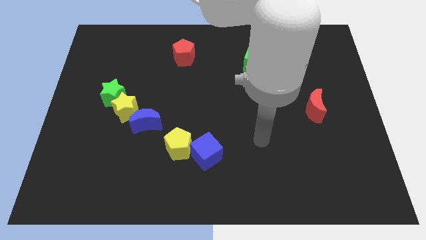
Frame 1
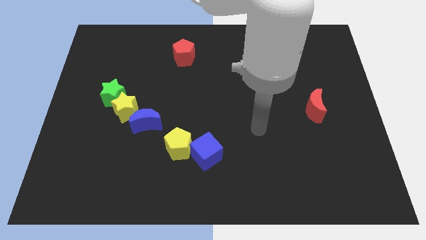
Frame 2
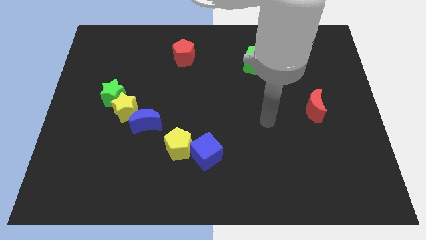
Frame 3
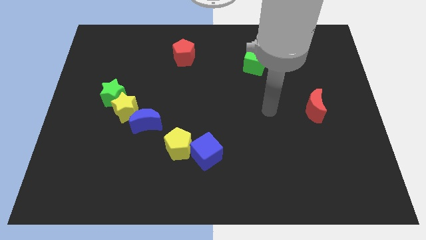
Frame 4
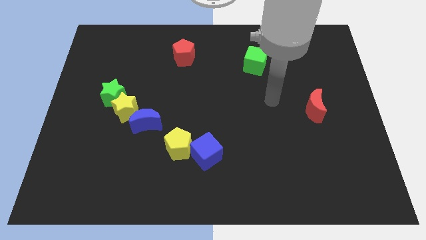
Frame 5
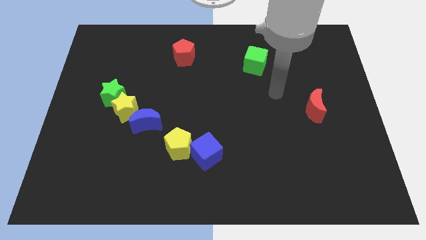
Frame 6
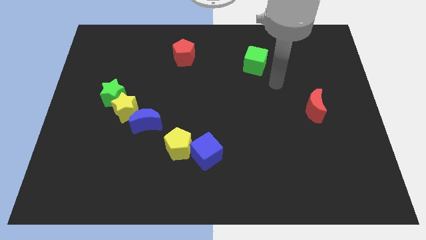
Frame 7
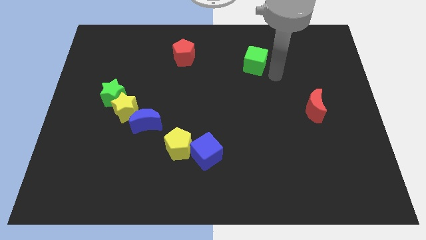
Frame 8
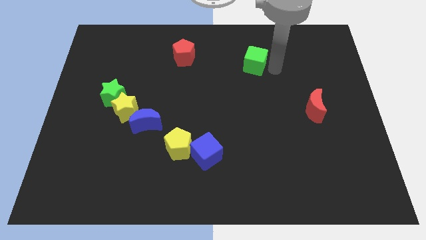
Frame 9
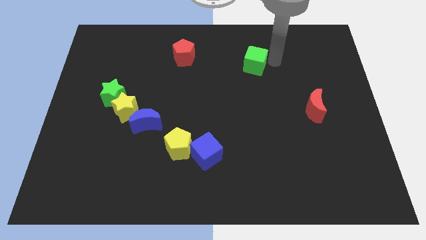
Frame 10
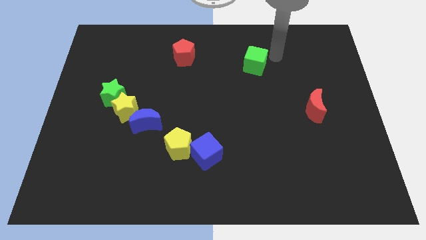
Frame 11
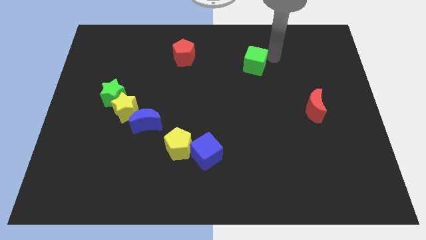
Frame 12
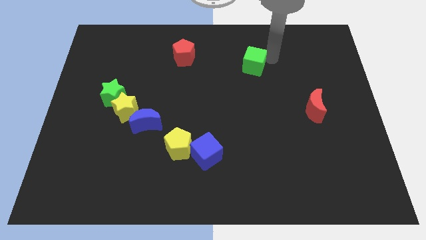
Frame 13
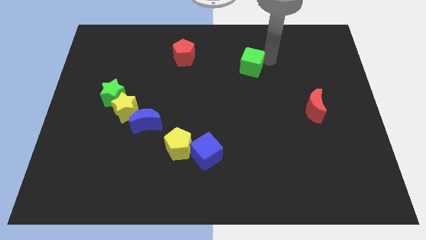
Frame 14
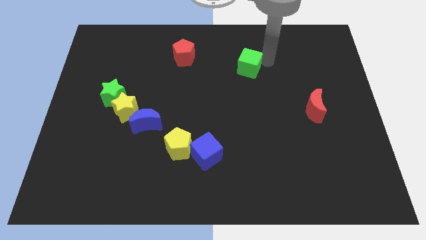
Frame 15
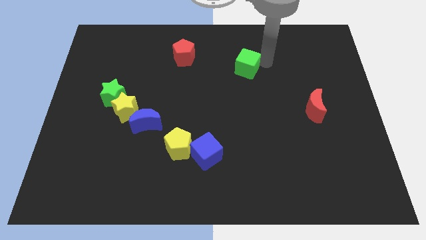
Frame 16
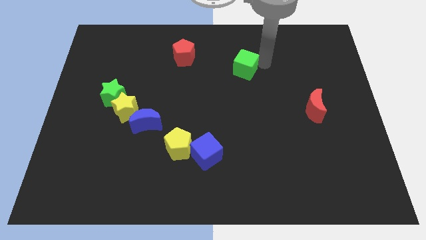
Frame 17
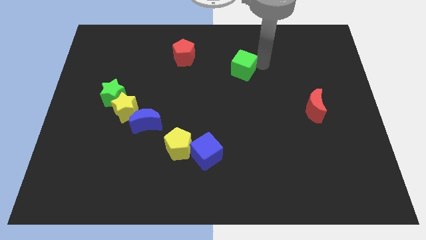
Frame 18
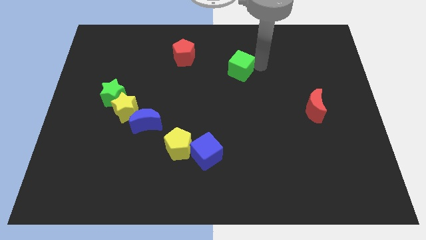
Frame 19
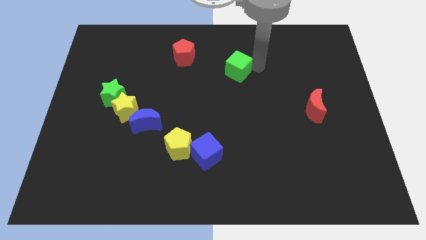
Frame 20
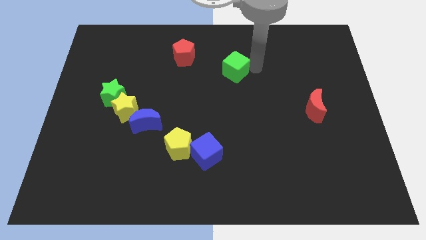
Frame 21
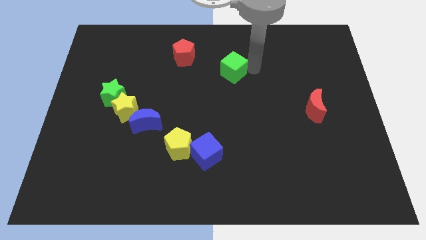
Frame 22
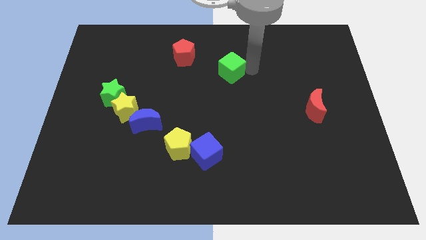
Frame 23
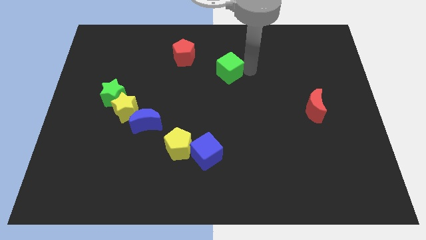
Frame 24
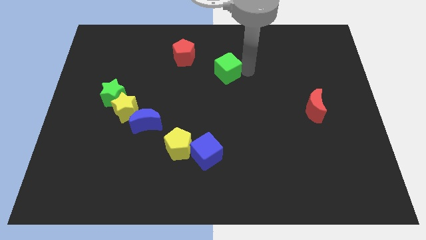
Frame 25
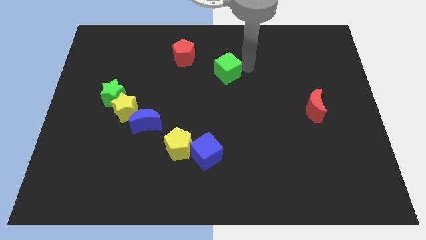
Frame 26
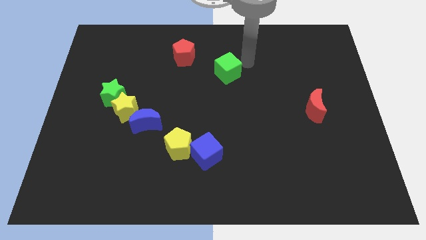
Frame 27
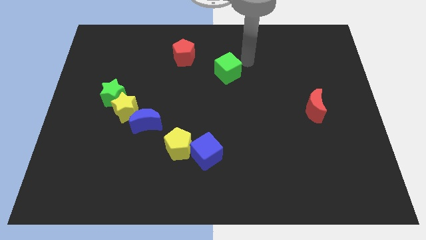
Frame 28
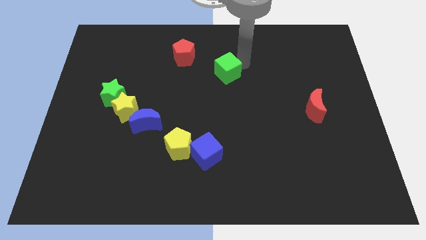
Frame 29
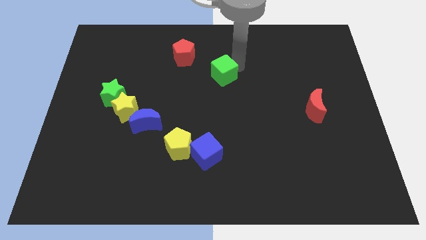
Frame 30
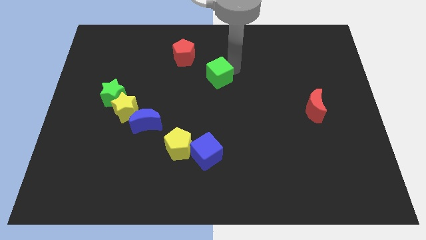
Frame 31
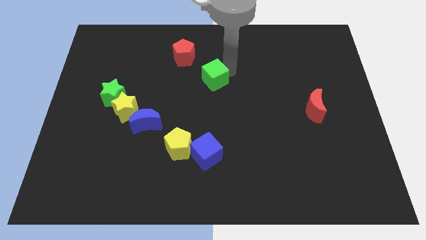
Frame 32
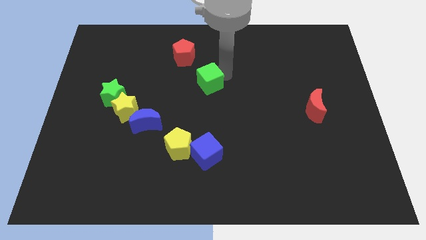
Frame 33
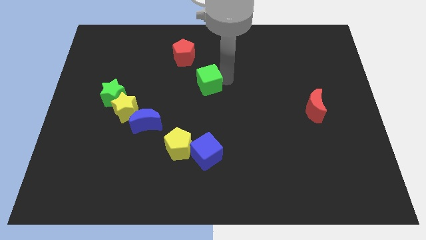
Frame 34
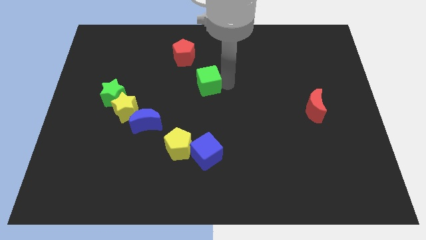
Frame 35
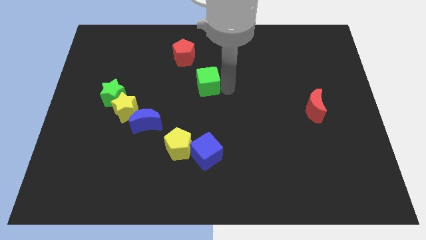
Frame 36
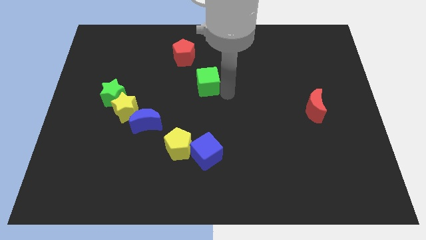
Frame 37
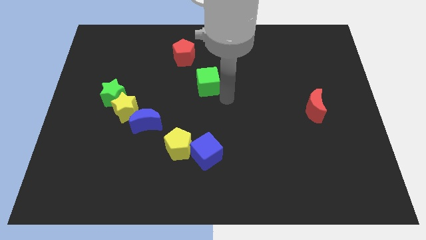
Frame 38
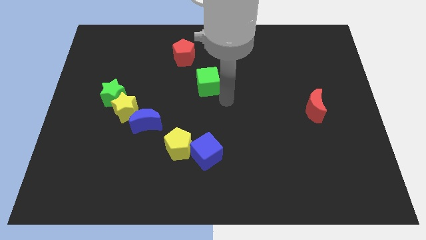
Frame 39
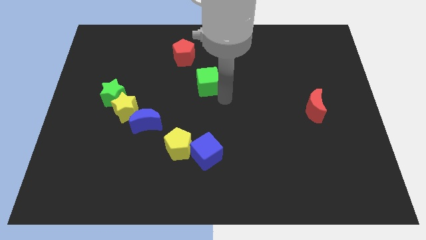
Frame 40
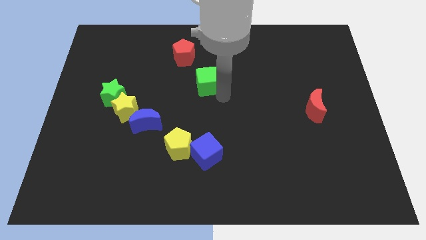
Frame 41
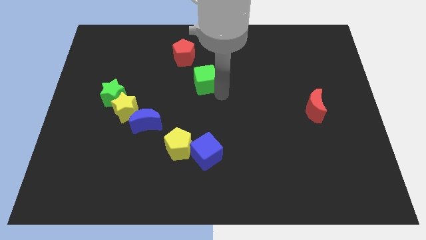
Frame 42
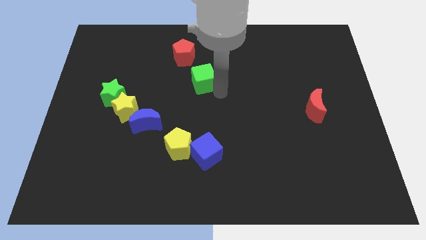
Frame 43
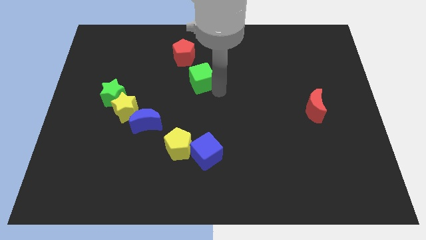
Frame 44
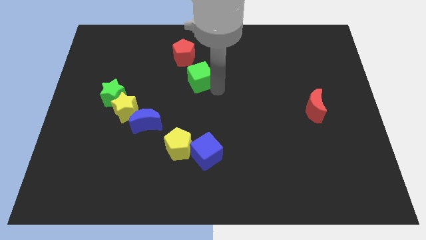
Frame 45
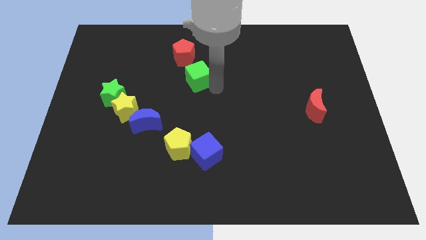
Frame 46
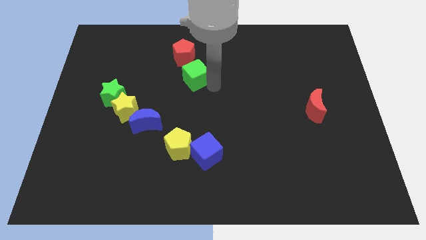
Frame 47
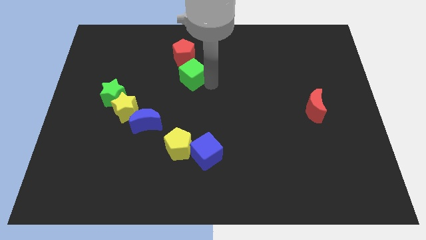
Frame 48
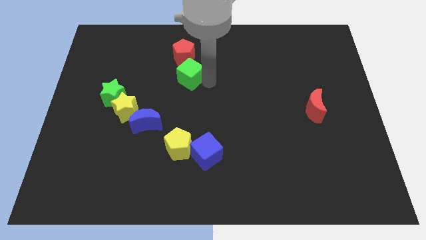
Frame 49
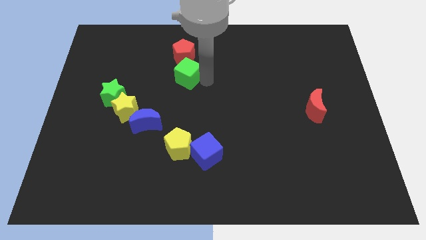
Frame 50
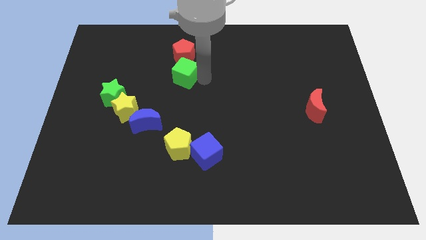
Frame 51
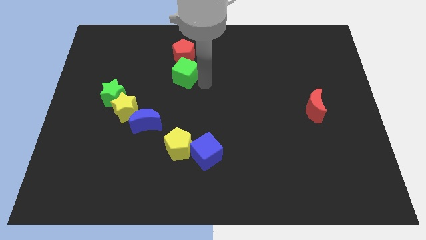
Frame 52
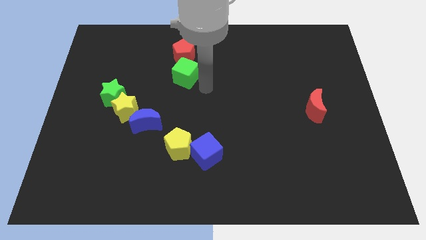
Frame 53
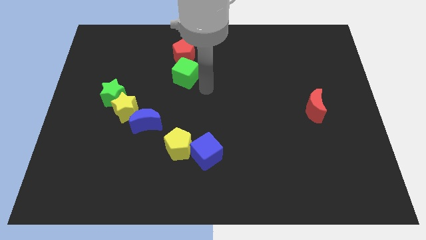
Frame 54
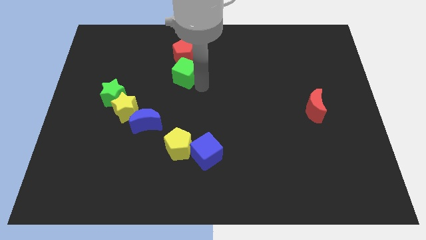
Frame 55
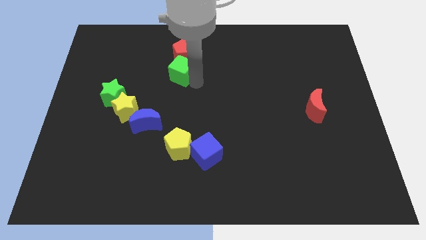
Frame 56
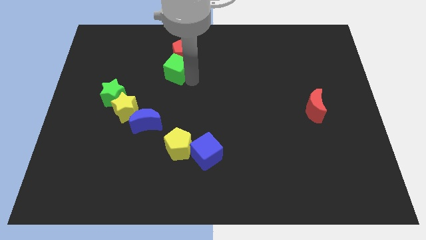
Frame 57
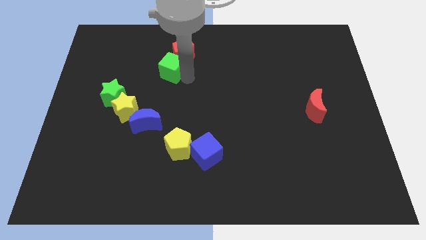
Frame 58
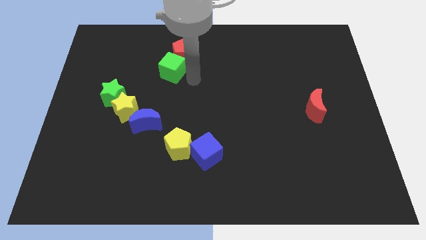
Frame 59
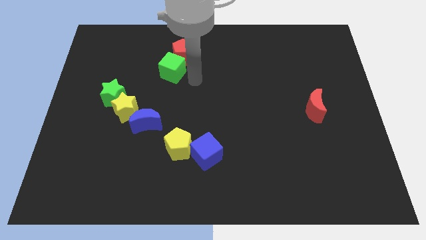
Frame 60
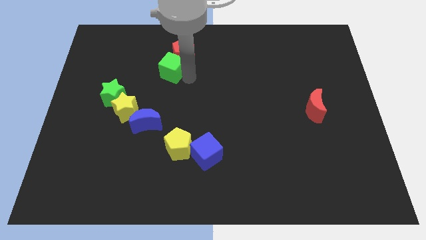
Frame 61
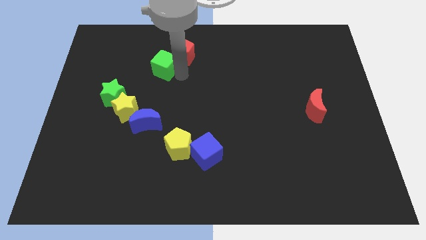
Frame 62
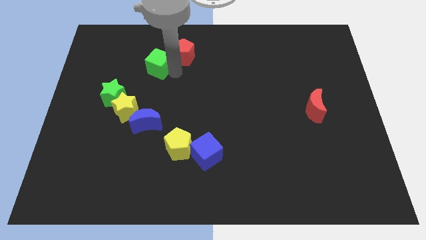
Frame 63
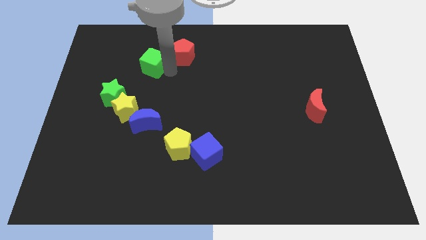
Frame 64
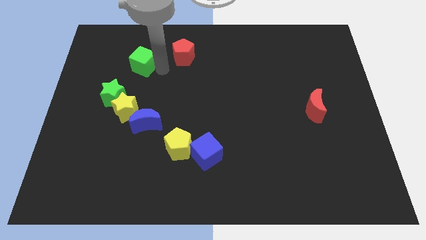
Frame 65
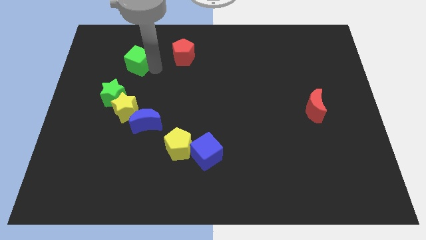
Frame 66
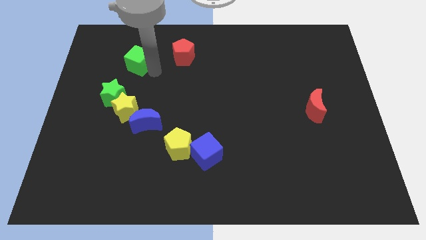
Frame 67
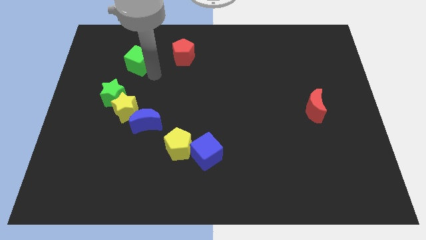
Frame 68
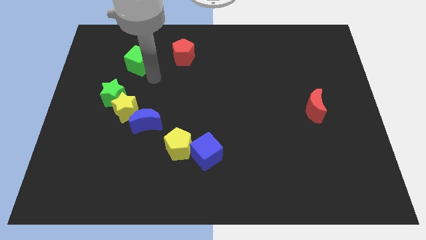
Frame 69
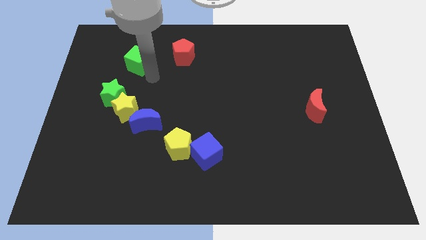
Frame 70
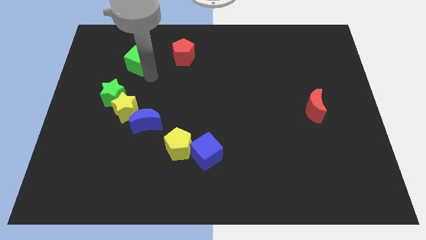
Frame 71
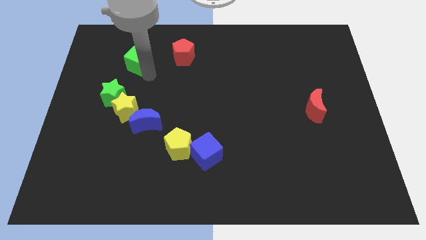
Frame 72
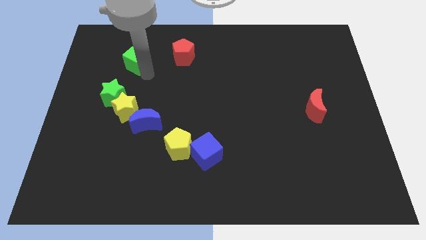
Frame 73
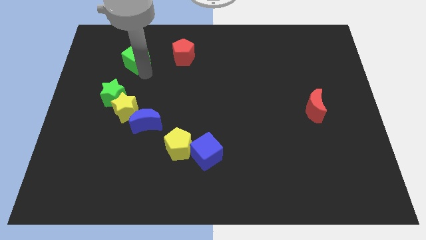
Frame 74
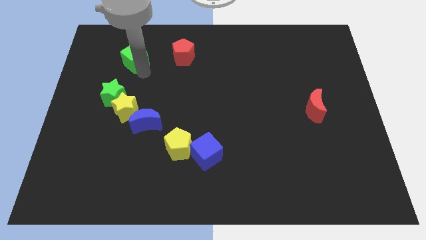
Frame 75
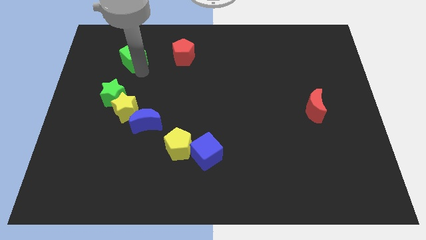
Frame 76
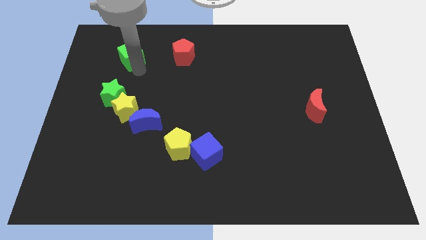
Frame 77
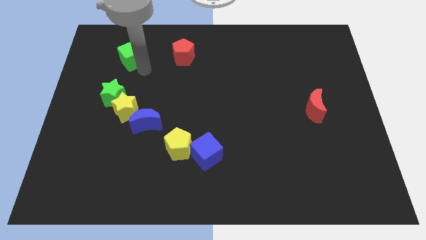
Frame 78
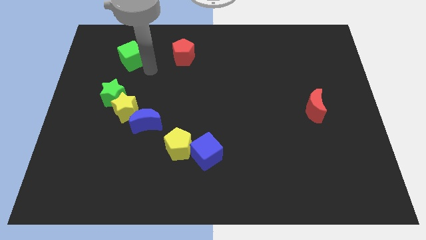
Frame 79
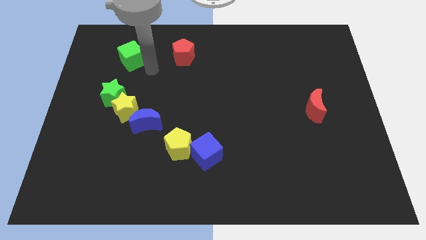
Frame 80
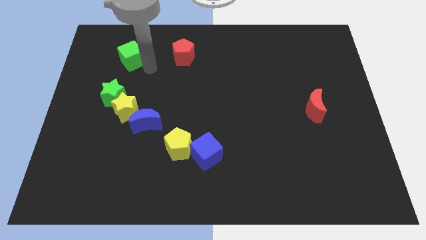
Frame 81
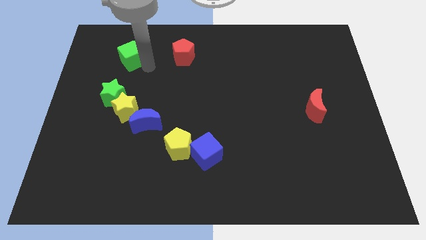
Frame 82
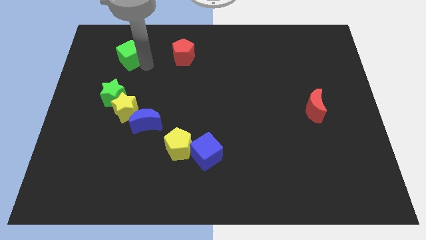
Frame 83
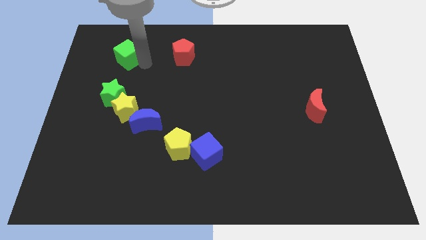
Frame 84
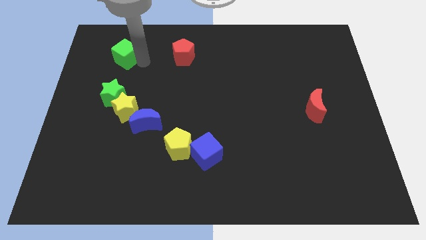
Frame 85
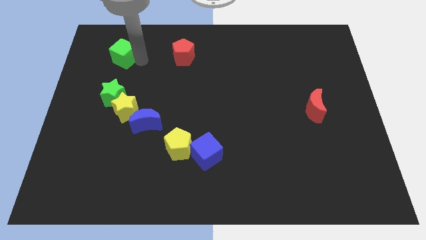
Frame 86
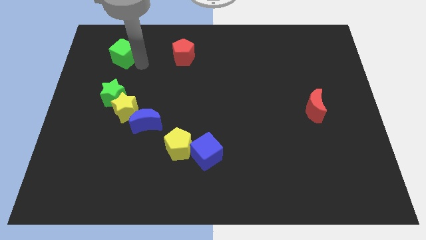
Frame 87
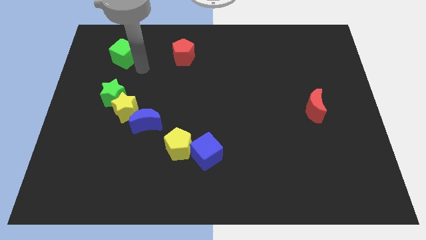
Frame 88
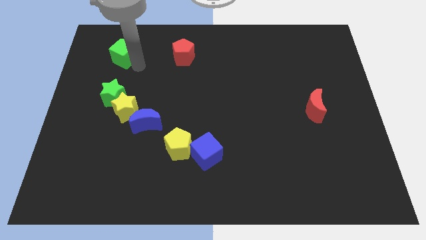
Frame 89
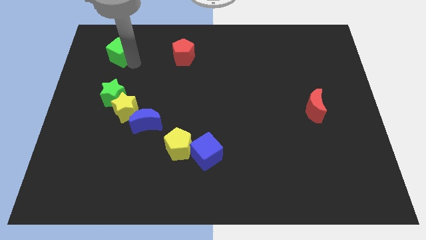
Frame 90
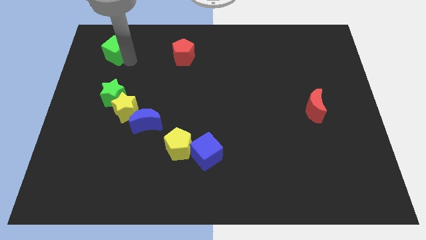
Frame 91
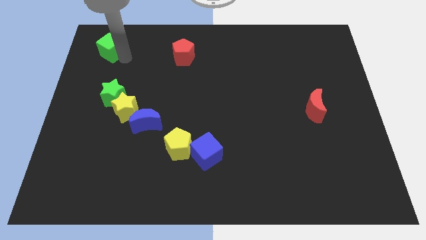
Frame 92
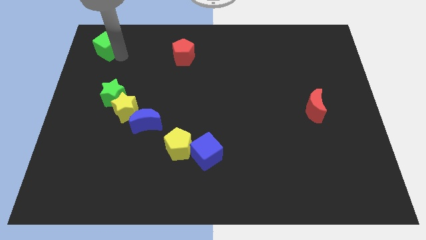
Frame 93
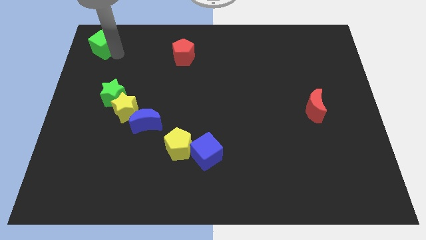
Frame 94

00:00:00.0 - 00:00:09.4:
move the green cube to the top left of the board
